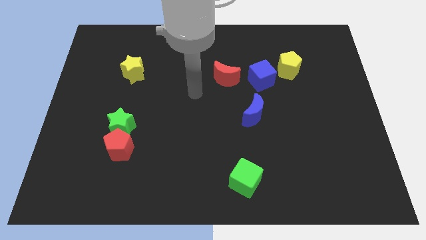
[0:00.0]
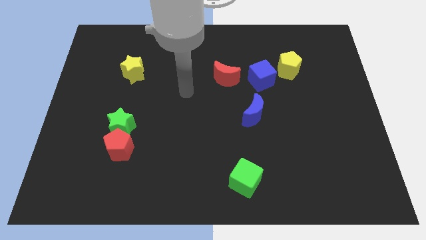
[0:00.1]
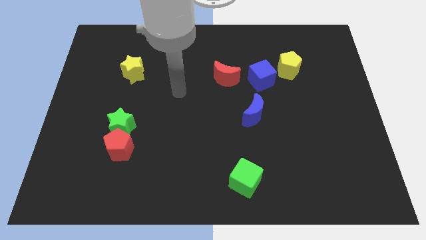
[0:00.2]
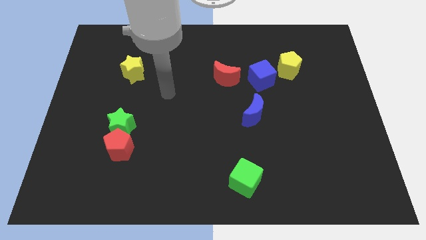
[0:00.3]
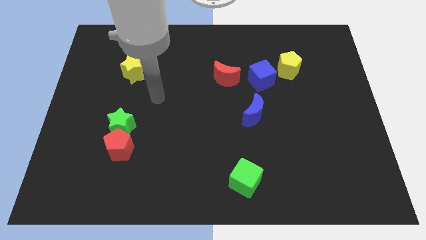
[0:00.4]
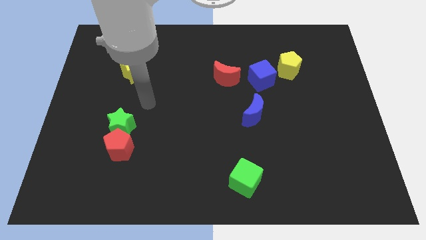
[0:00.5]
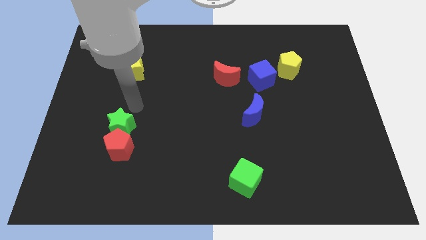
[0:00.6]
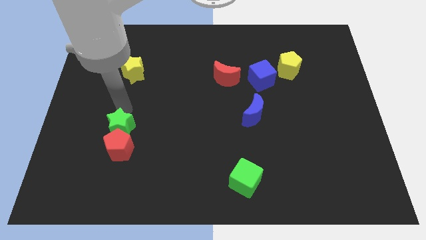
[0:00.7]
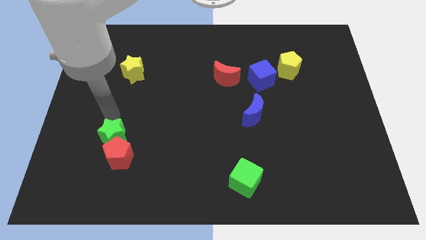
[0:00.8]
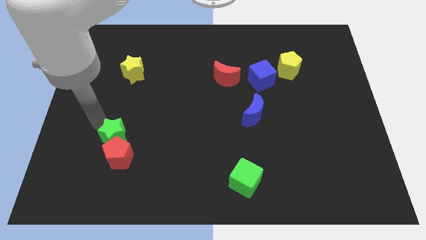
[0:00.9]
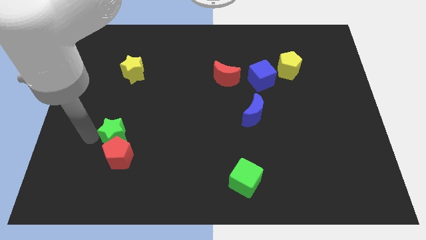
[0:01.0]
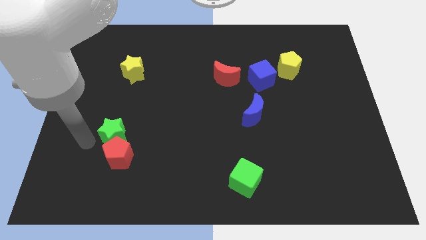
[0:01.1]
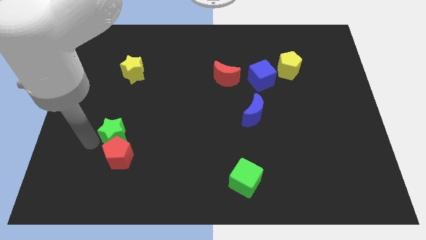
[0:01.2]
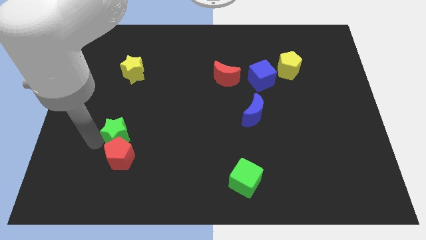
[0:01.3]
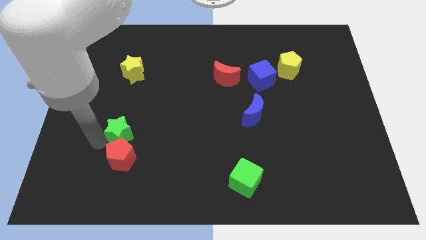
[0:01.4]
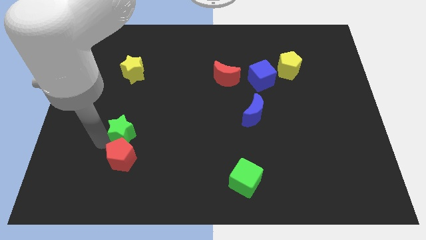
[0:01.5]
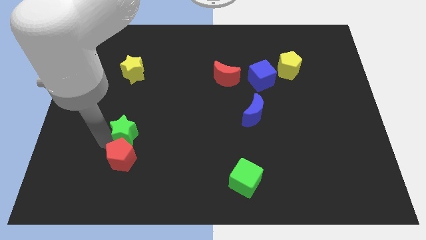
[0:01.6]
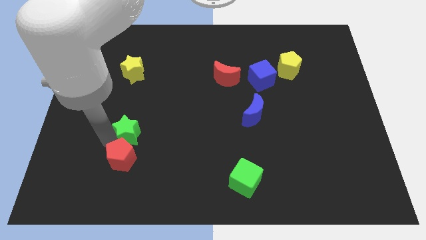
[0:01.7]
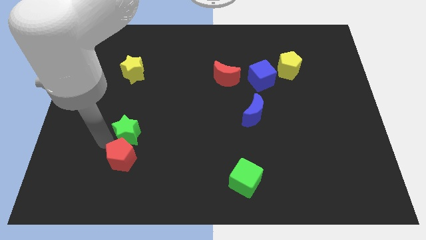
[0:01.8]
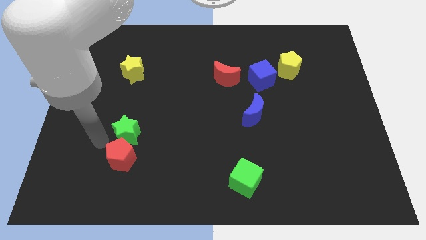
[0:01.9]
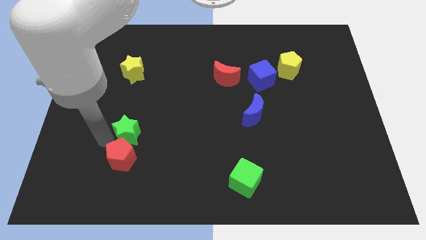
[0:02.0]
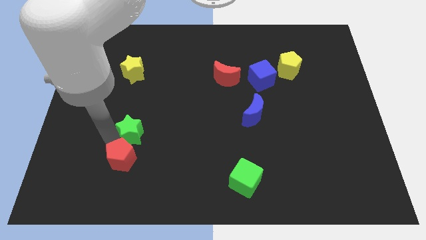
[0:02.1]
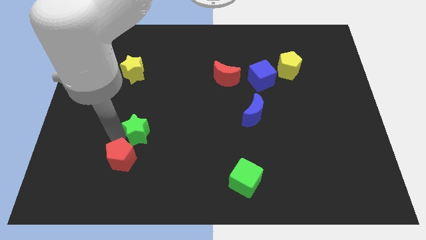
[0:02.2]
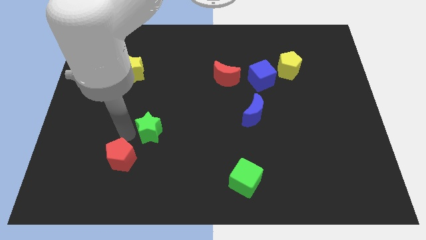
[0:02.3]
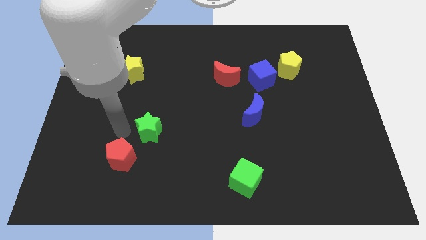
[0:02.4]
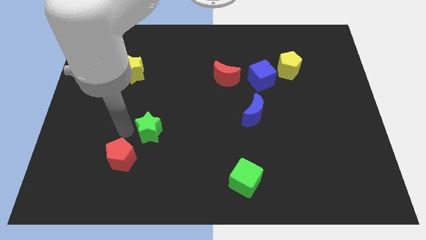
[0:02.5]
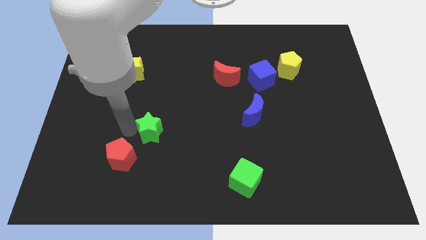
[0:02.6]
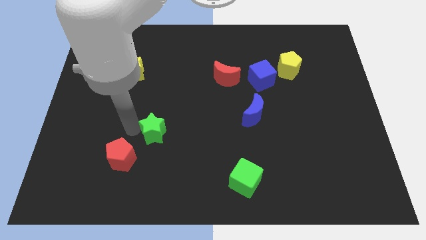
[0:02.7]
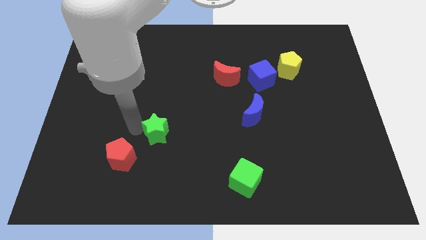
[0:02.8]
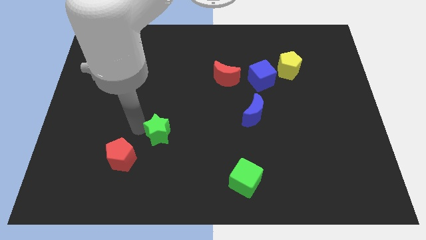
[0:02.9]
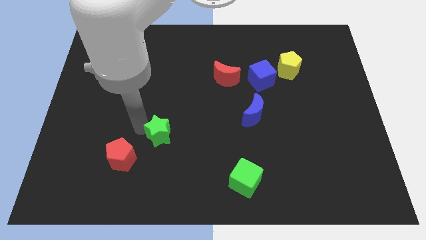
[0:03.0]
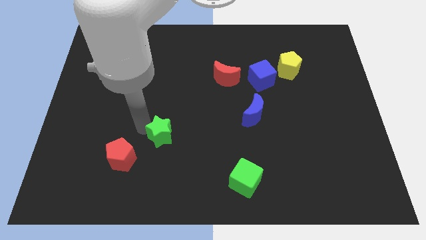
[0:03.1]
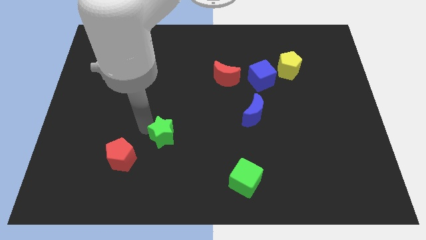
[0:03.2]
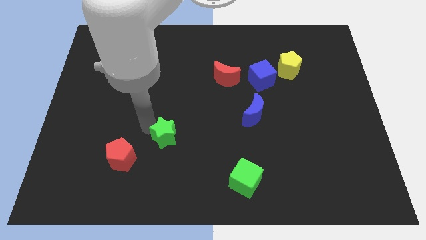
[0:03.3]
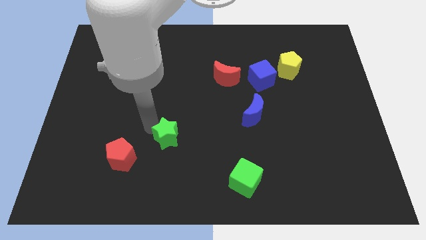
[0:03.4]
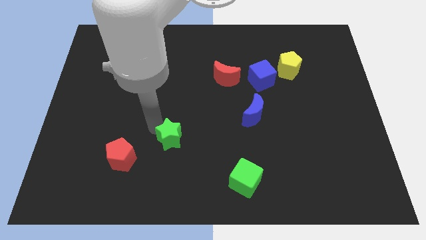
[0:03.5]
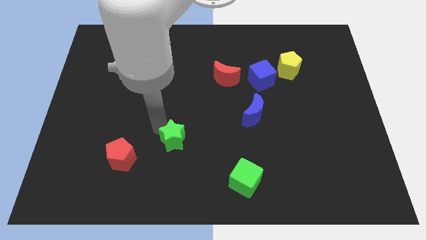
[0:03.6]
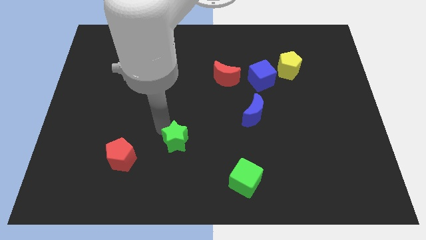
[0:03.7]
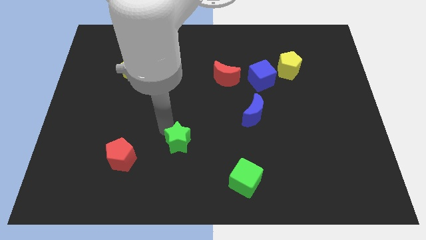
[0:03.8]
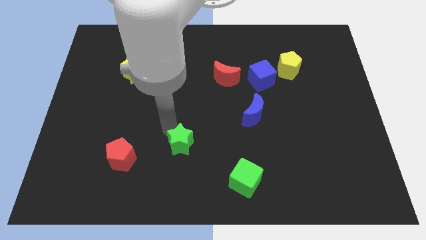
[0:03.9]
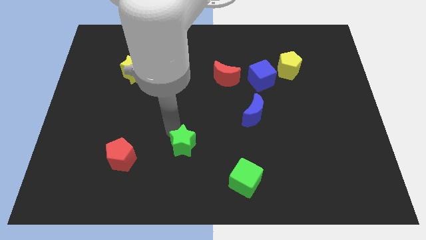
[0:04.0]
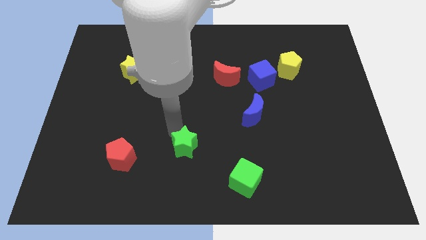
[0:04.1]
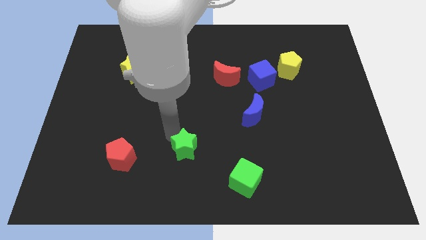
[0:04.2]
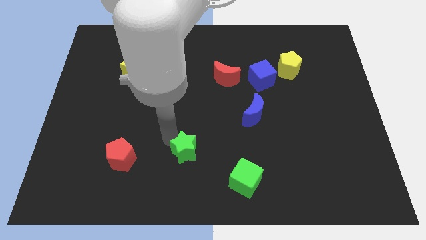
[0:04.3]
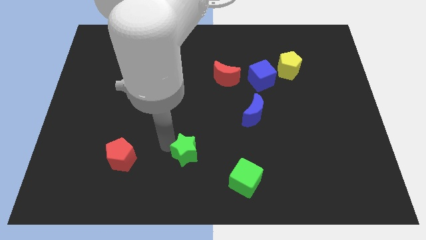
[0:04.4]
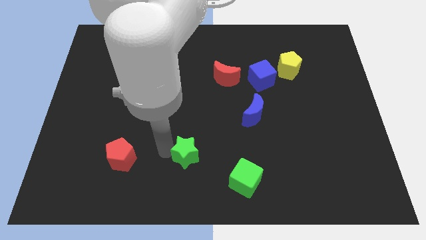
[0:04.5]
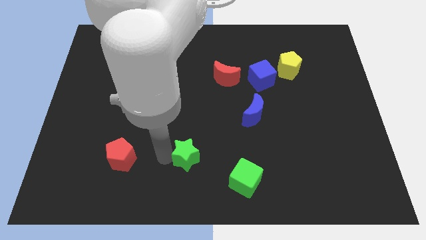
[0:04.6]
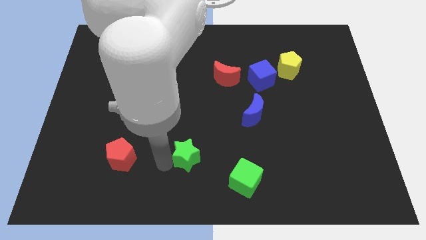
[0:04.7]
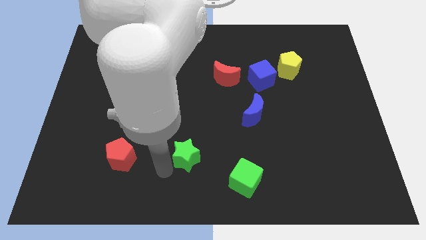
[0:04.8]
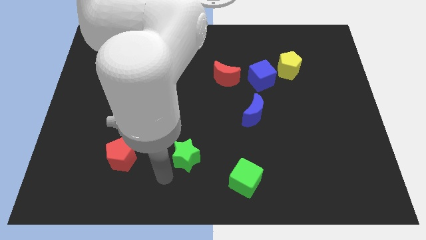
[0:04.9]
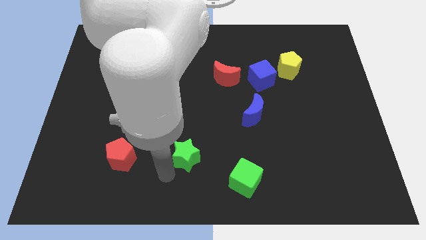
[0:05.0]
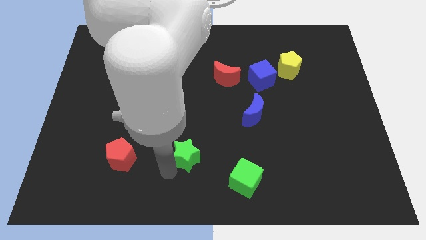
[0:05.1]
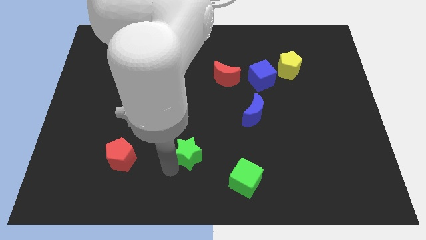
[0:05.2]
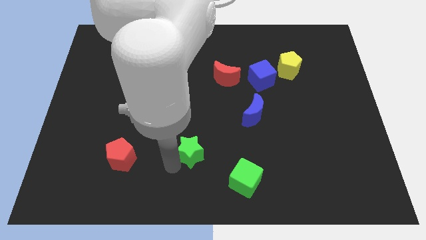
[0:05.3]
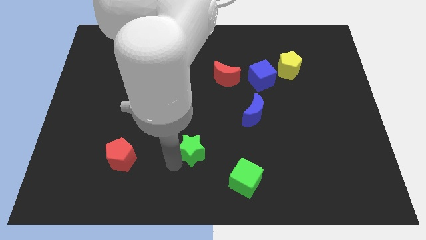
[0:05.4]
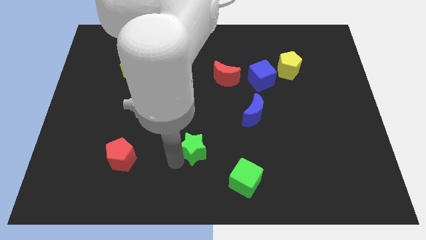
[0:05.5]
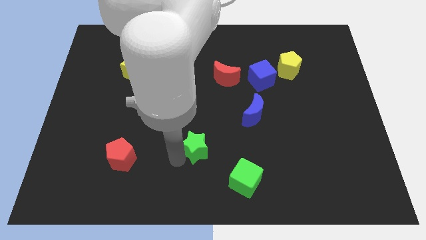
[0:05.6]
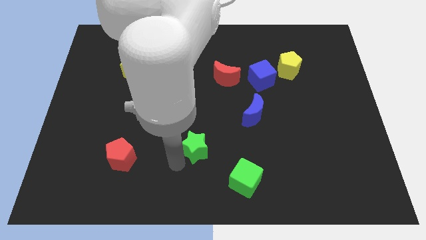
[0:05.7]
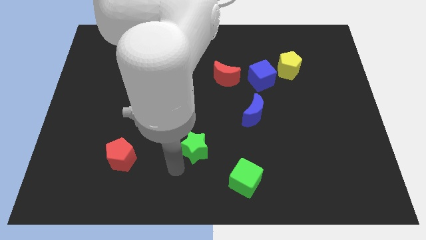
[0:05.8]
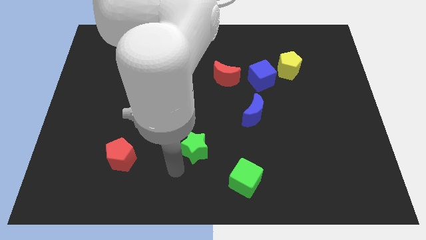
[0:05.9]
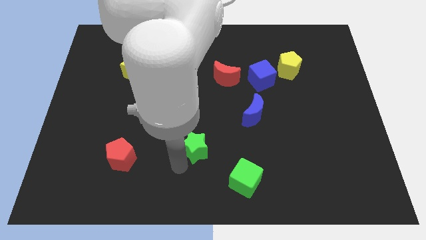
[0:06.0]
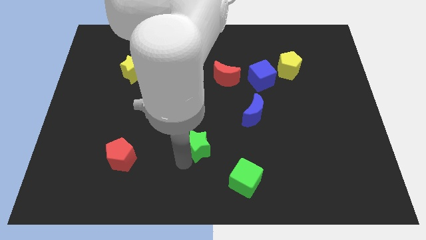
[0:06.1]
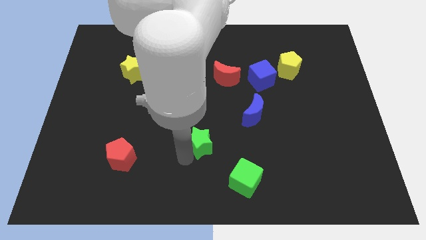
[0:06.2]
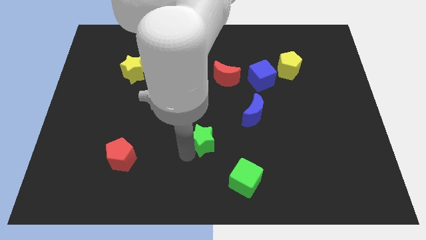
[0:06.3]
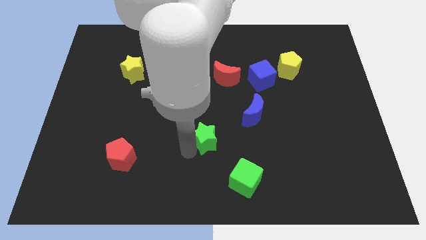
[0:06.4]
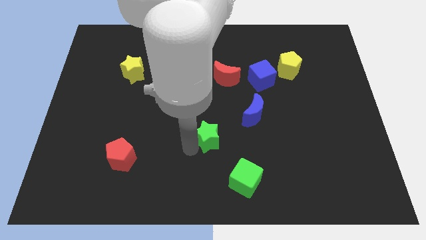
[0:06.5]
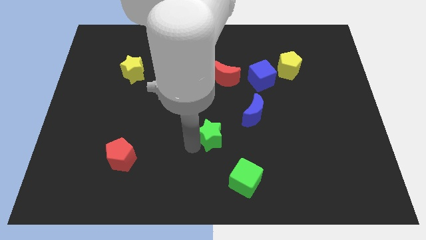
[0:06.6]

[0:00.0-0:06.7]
push the green star to the right

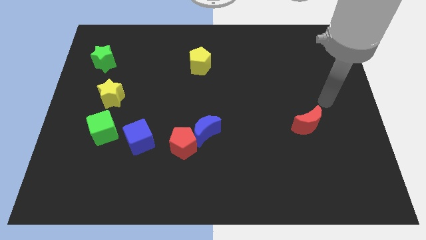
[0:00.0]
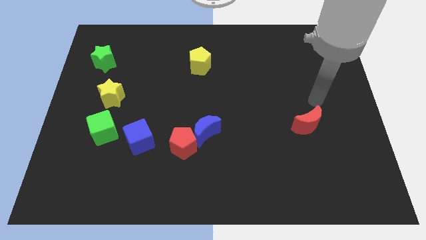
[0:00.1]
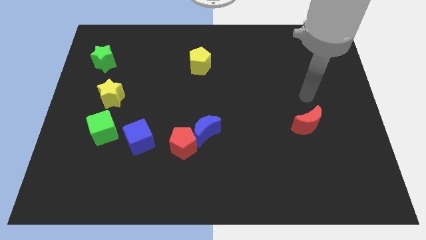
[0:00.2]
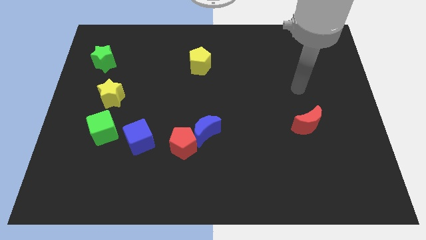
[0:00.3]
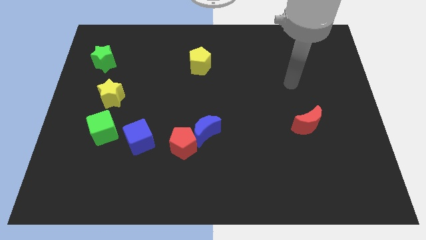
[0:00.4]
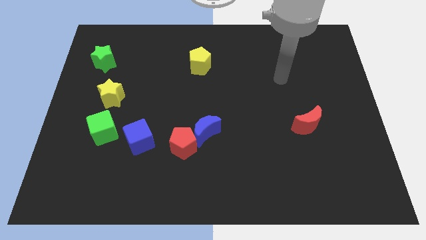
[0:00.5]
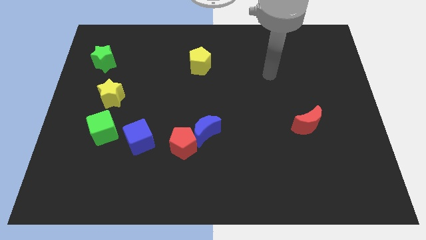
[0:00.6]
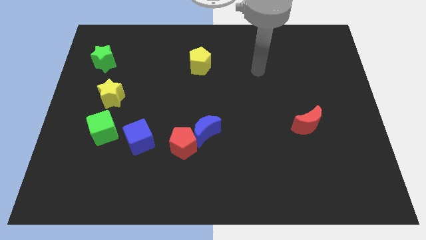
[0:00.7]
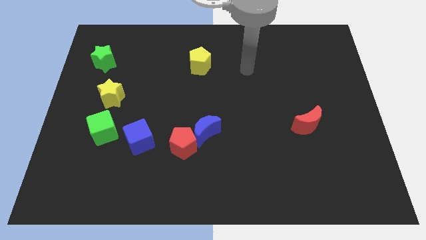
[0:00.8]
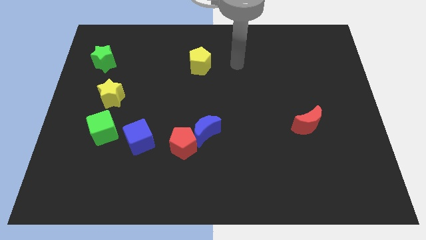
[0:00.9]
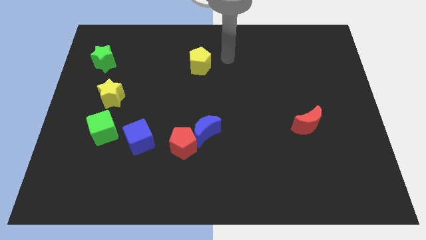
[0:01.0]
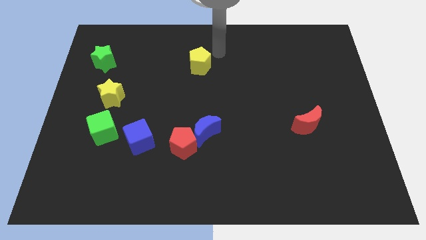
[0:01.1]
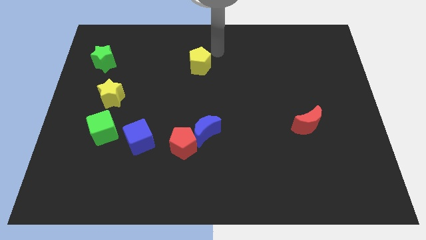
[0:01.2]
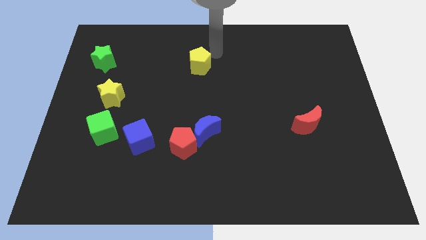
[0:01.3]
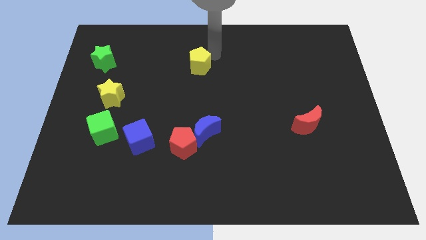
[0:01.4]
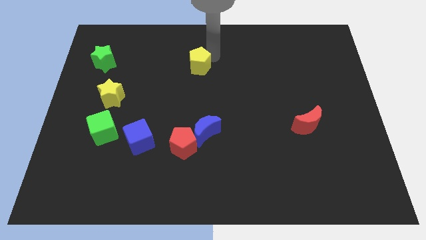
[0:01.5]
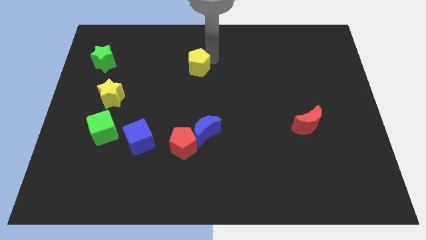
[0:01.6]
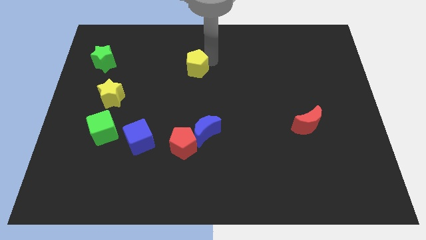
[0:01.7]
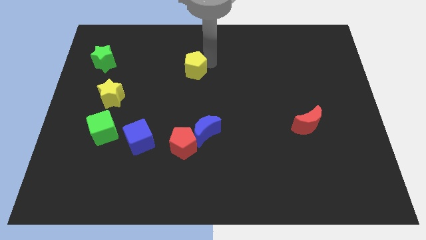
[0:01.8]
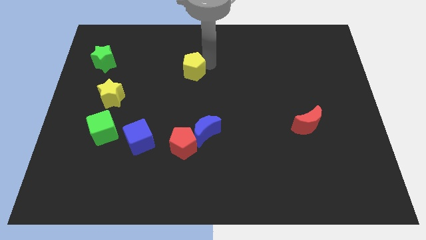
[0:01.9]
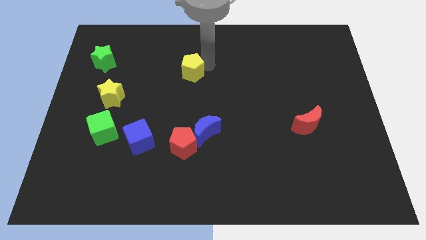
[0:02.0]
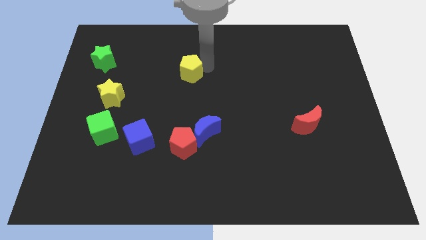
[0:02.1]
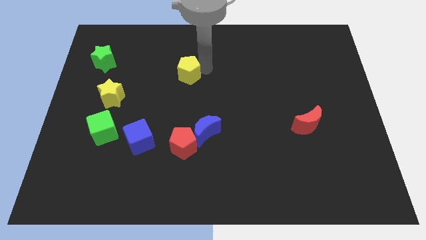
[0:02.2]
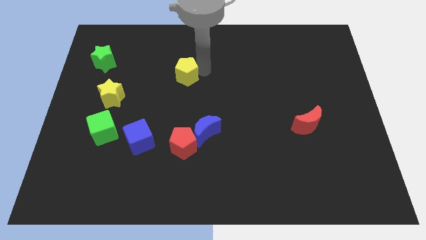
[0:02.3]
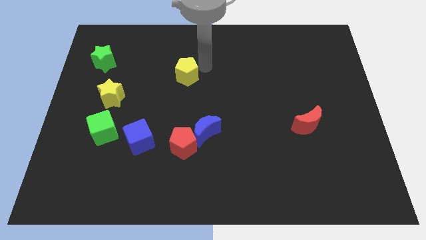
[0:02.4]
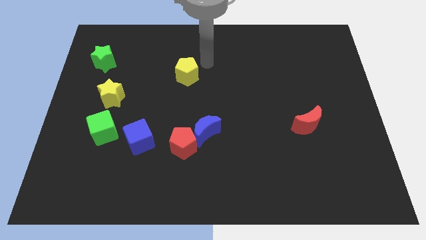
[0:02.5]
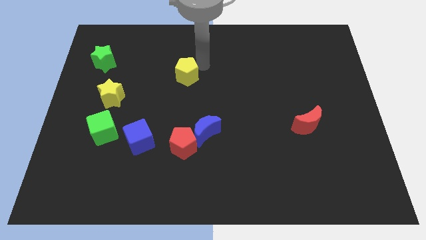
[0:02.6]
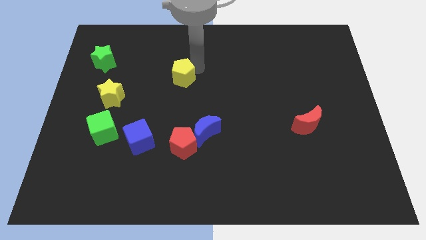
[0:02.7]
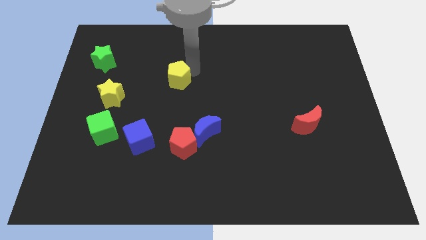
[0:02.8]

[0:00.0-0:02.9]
move the yellow pentagon down and then to the left somewhat
